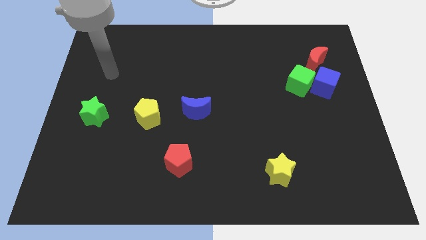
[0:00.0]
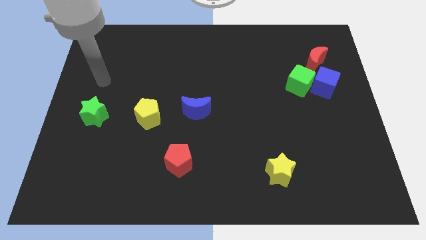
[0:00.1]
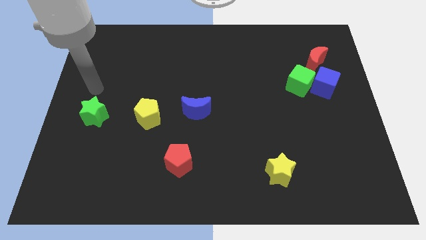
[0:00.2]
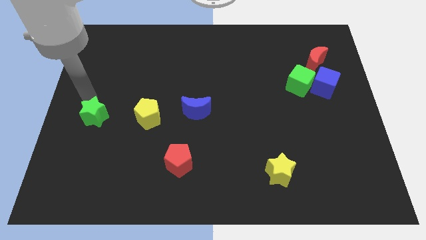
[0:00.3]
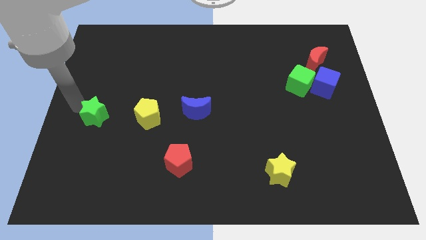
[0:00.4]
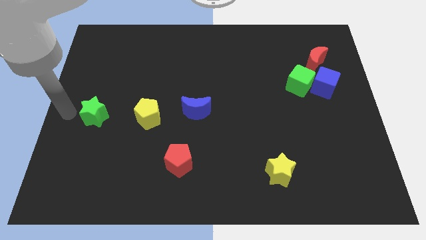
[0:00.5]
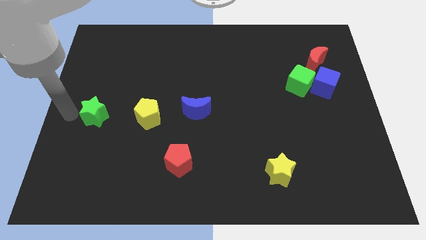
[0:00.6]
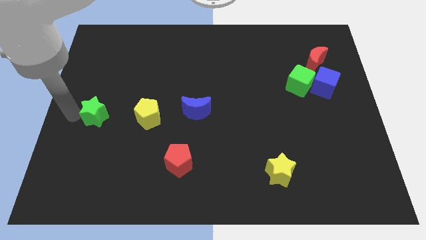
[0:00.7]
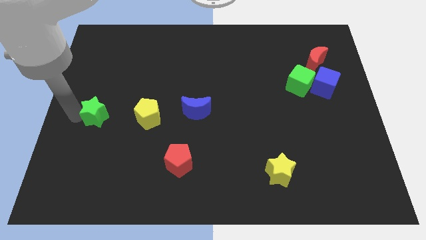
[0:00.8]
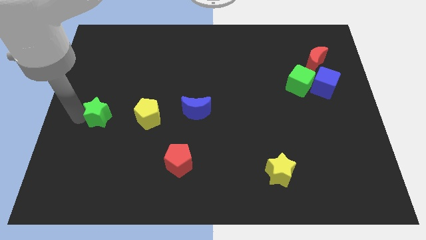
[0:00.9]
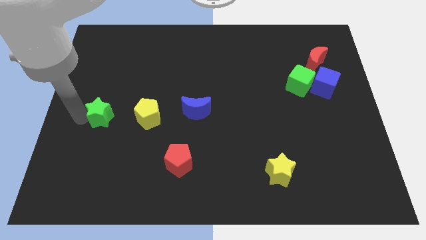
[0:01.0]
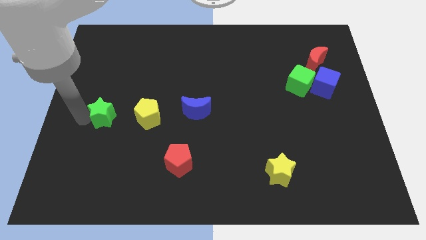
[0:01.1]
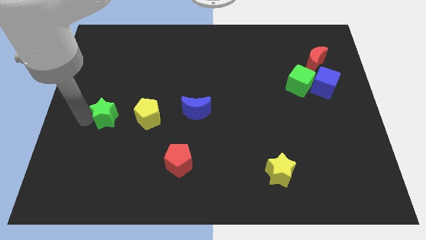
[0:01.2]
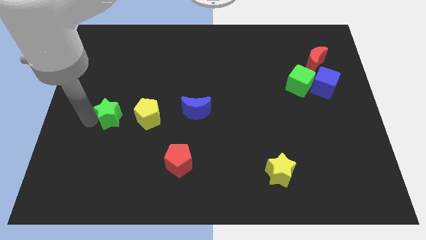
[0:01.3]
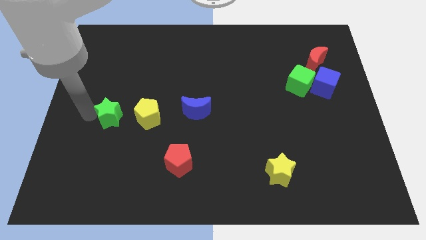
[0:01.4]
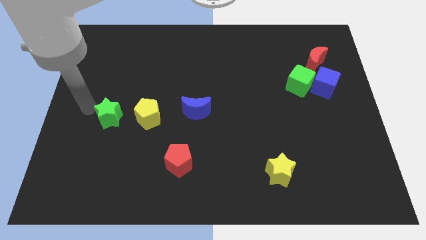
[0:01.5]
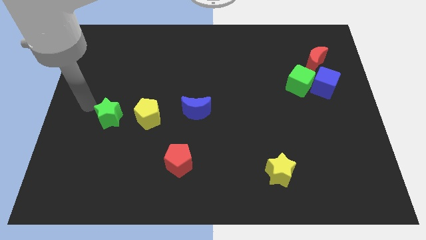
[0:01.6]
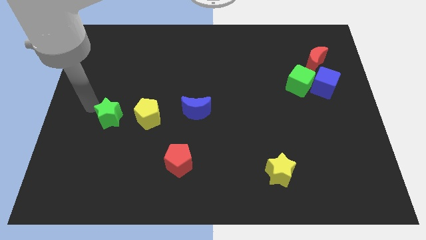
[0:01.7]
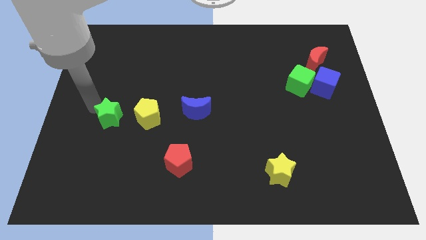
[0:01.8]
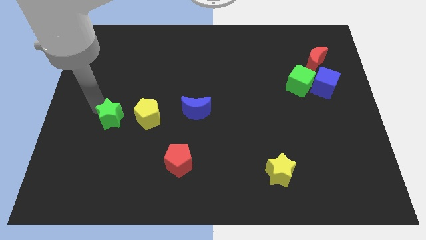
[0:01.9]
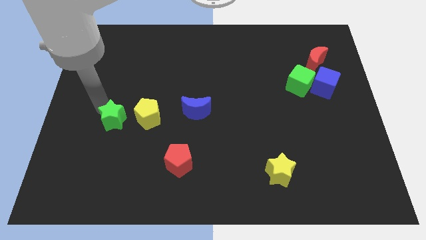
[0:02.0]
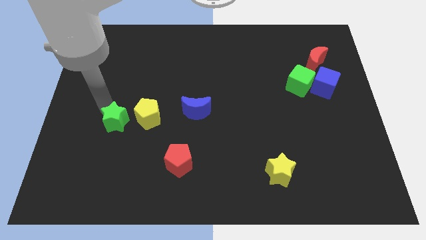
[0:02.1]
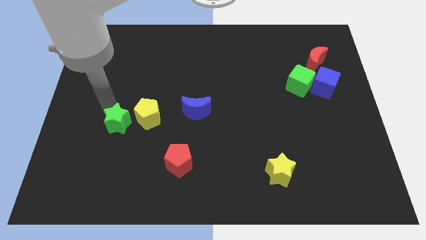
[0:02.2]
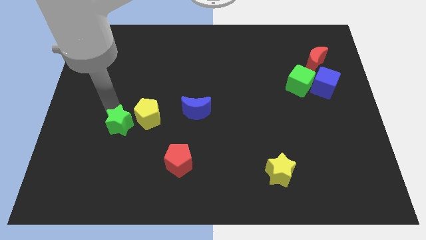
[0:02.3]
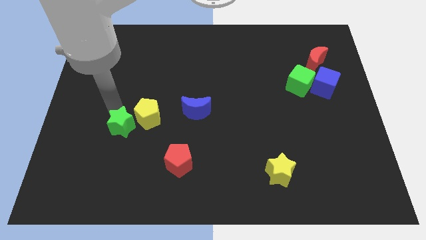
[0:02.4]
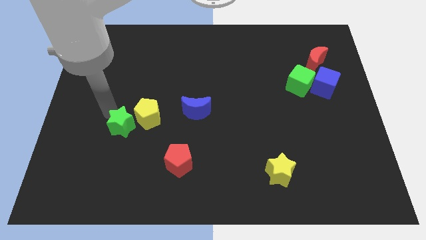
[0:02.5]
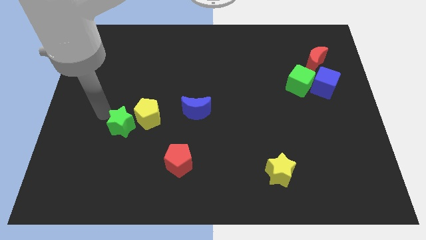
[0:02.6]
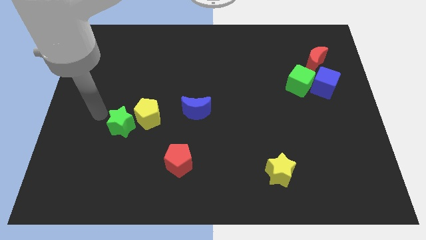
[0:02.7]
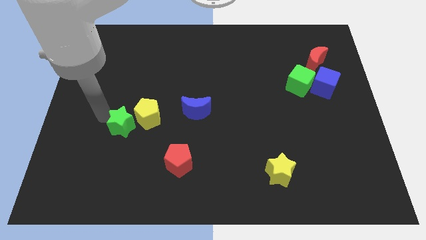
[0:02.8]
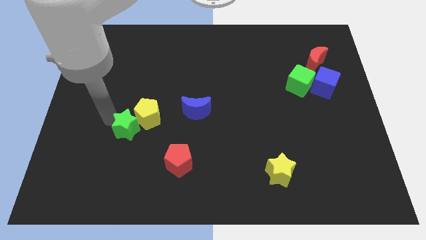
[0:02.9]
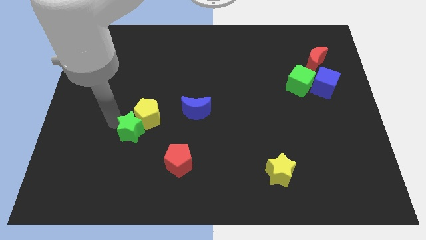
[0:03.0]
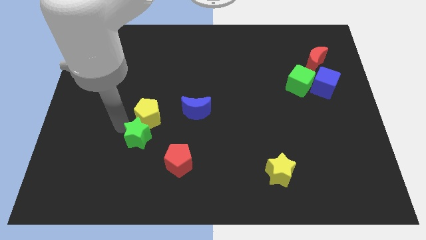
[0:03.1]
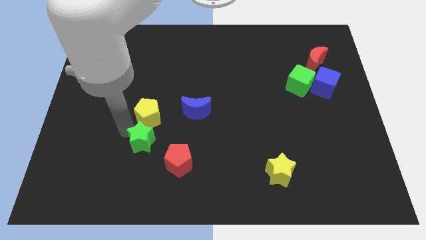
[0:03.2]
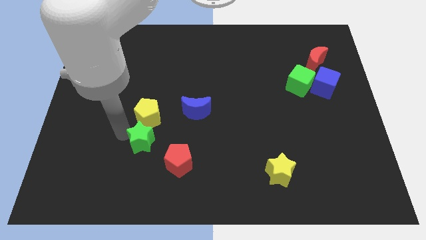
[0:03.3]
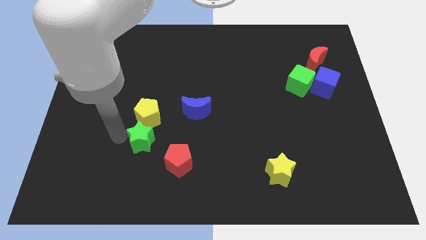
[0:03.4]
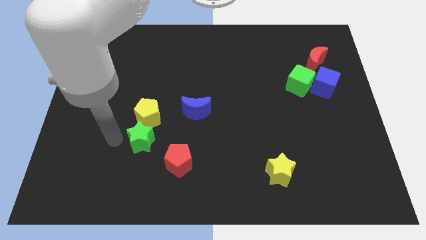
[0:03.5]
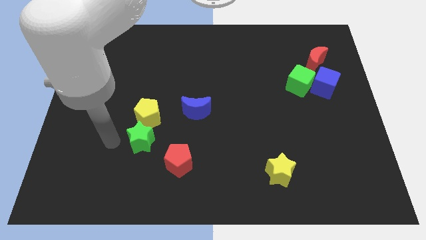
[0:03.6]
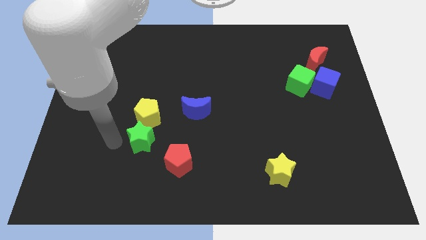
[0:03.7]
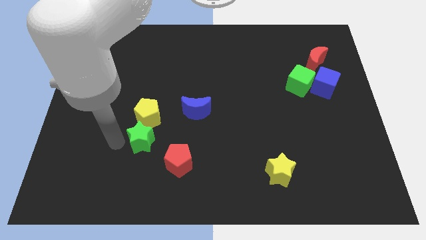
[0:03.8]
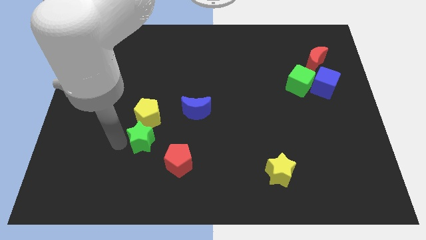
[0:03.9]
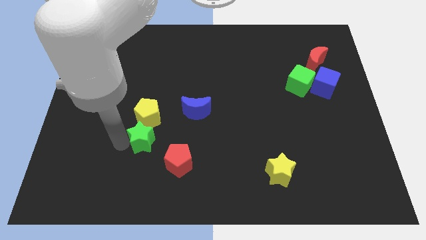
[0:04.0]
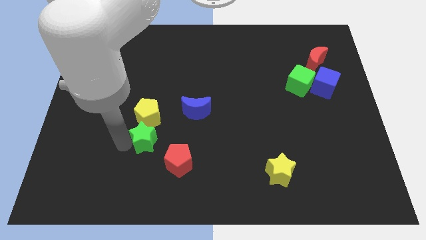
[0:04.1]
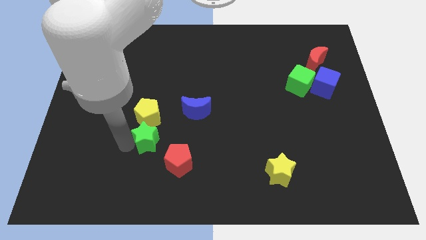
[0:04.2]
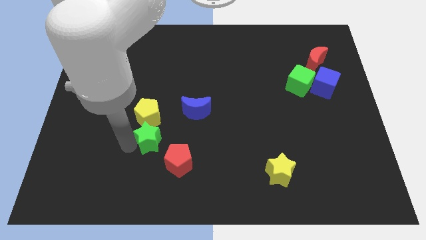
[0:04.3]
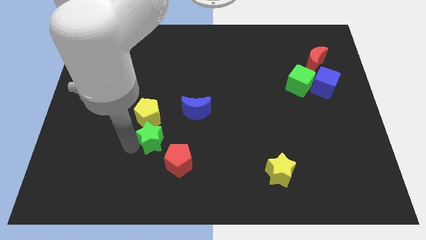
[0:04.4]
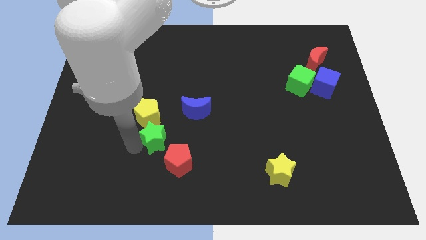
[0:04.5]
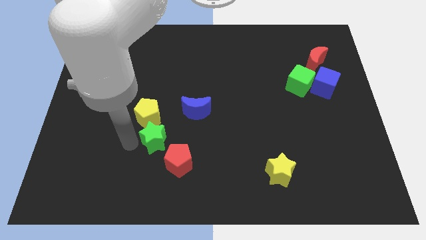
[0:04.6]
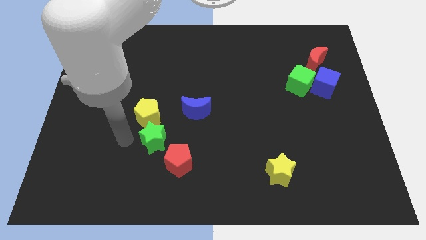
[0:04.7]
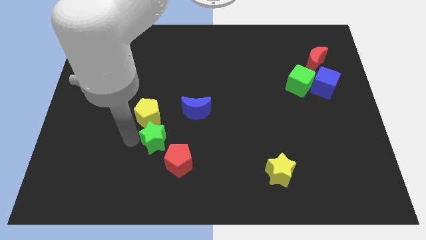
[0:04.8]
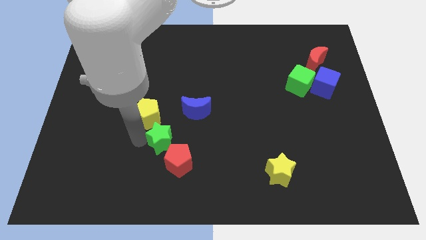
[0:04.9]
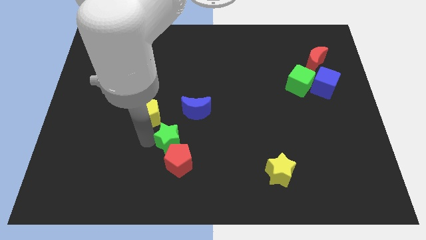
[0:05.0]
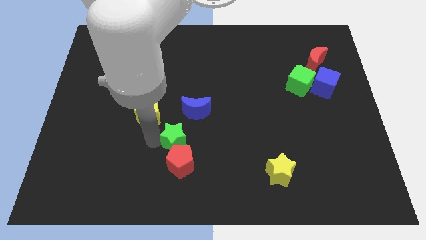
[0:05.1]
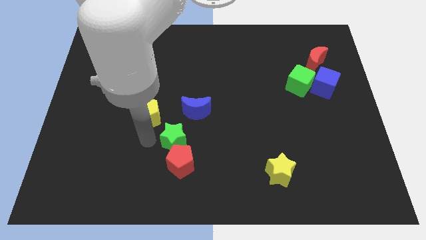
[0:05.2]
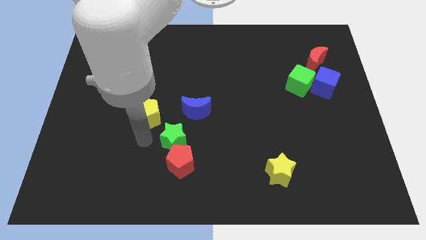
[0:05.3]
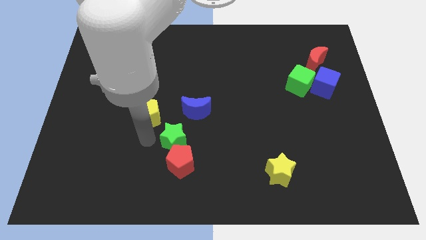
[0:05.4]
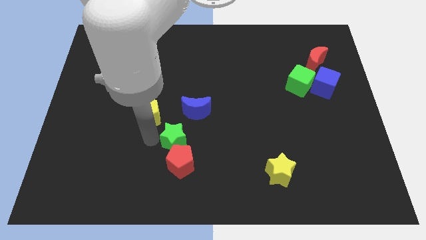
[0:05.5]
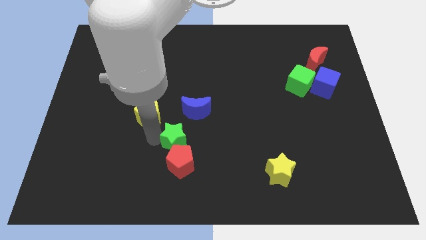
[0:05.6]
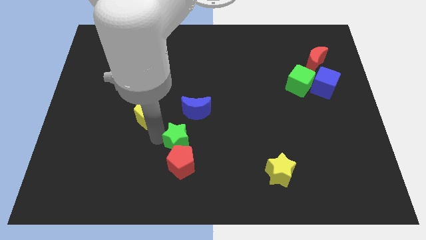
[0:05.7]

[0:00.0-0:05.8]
slide the green star diagonally up and to the right of the red pentagon
